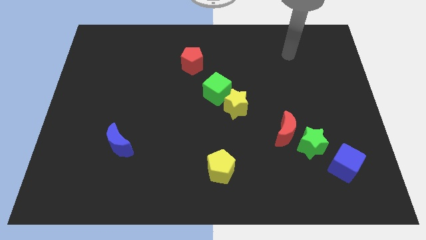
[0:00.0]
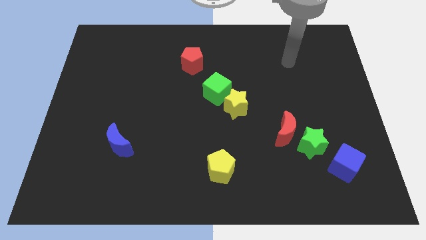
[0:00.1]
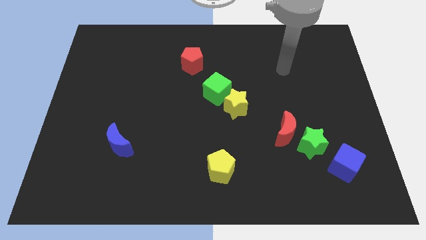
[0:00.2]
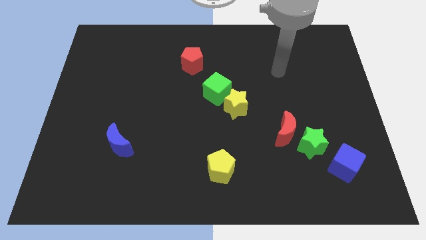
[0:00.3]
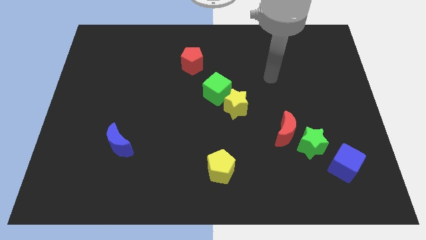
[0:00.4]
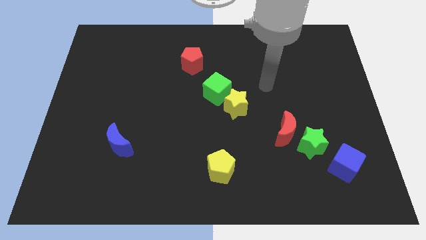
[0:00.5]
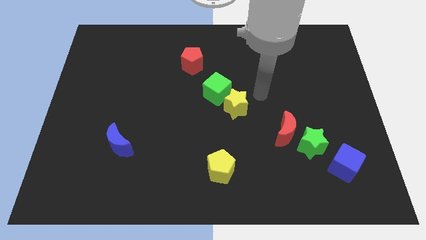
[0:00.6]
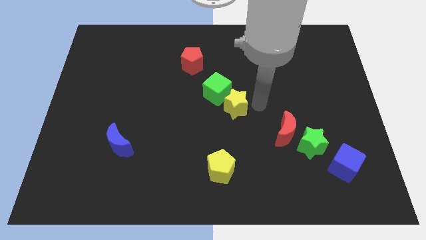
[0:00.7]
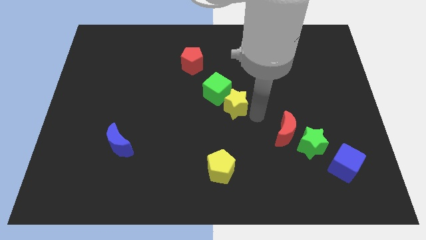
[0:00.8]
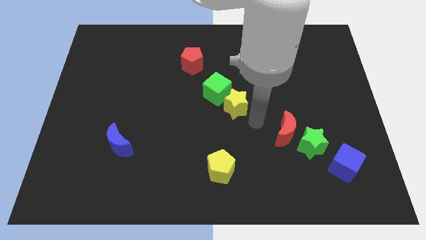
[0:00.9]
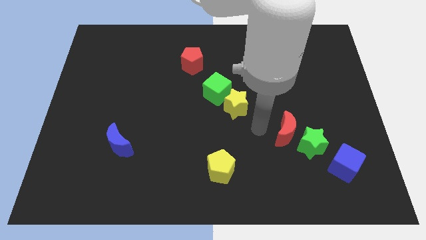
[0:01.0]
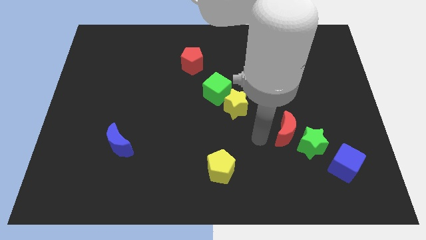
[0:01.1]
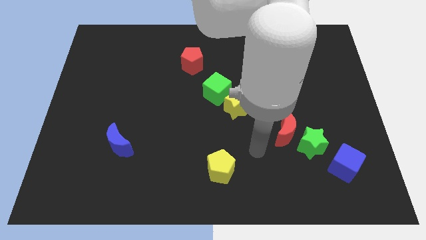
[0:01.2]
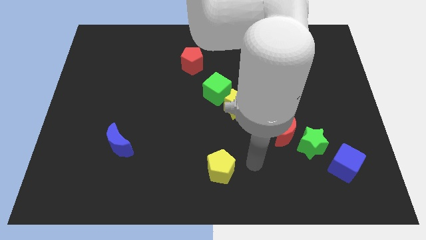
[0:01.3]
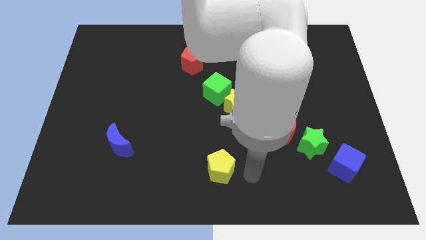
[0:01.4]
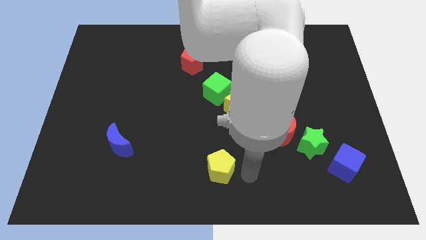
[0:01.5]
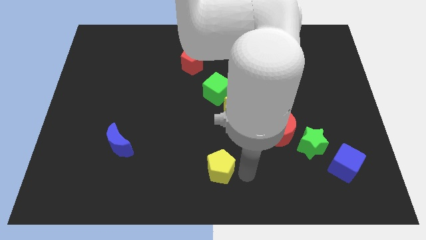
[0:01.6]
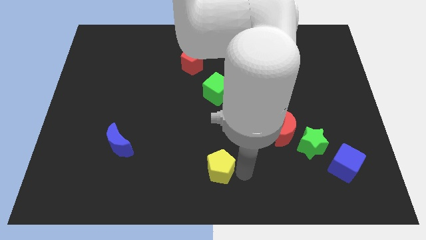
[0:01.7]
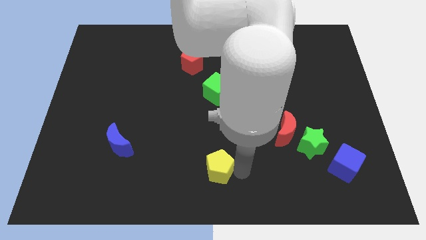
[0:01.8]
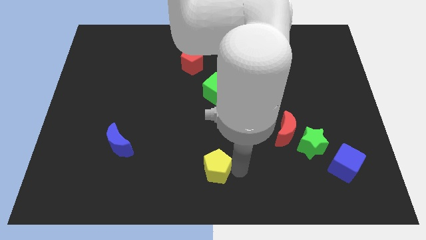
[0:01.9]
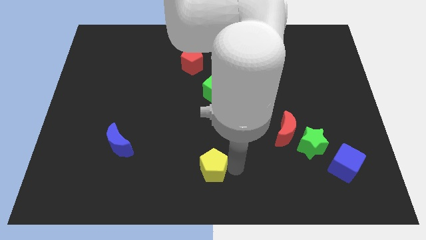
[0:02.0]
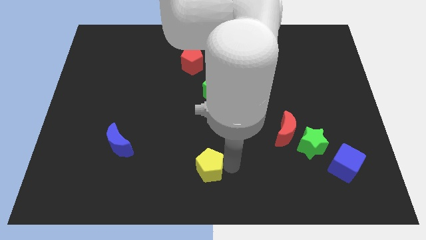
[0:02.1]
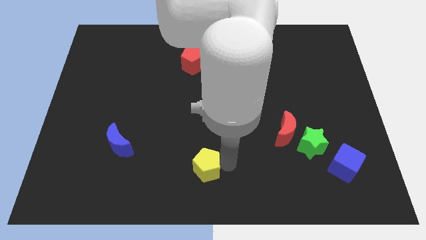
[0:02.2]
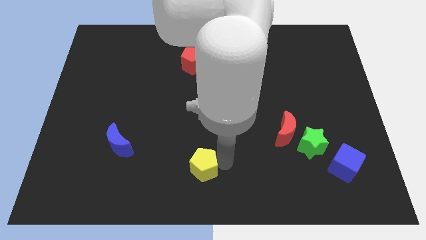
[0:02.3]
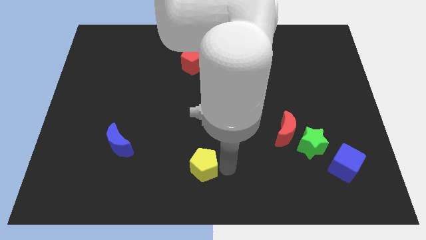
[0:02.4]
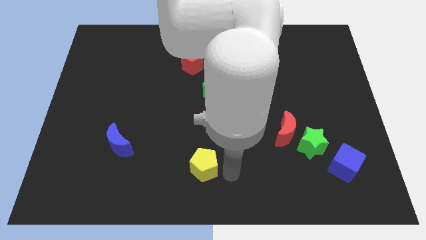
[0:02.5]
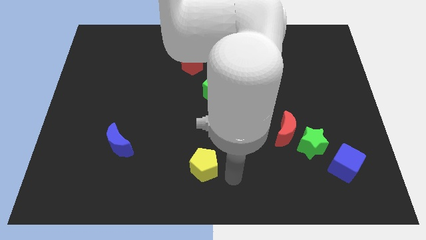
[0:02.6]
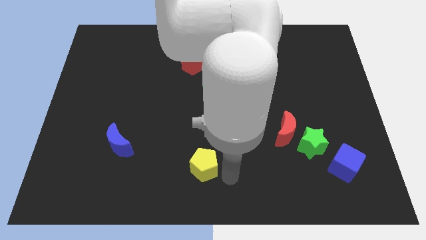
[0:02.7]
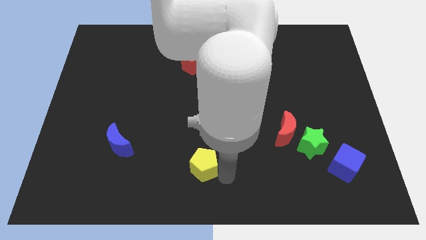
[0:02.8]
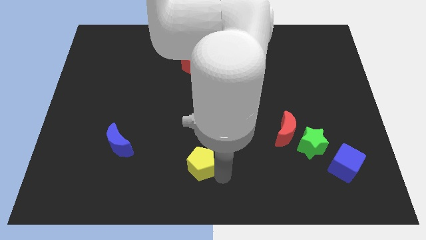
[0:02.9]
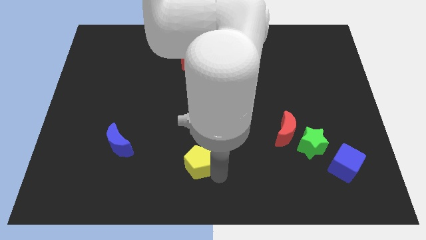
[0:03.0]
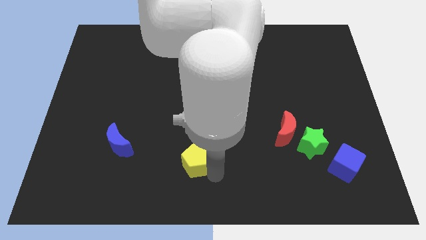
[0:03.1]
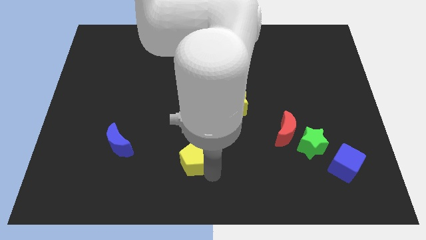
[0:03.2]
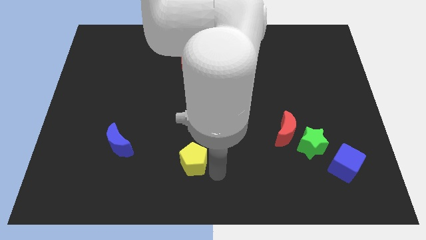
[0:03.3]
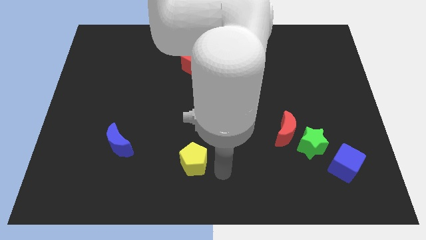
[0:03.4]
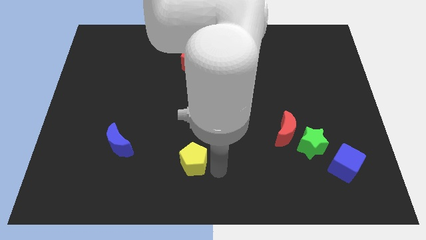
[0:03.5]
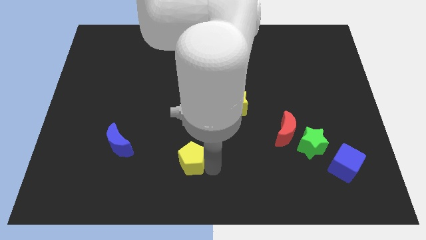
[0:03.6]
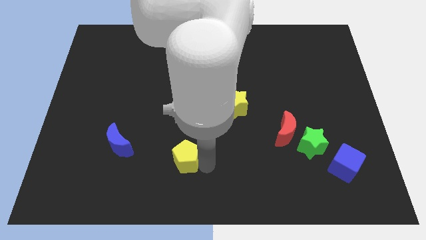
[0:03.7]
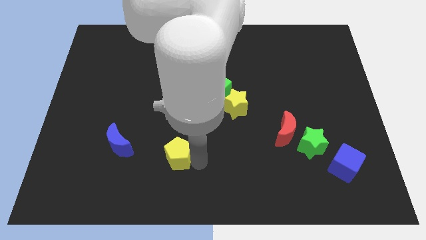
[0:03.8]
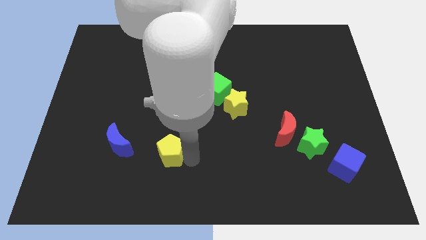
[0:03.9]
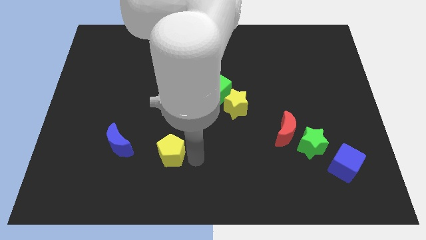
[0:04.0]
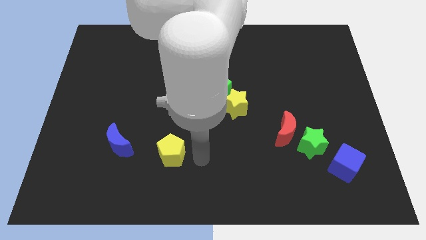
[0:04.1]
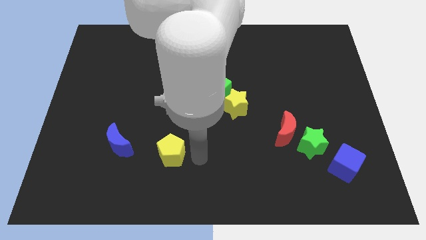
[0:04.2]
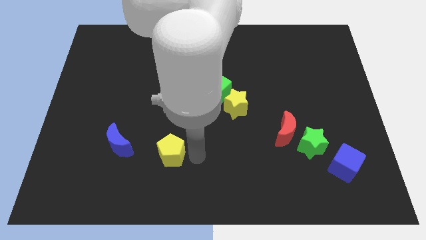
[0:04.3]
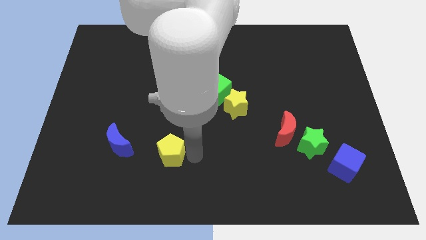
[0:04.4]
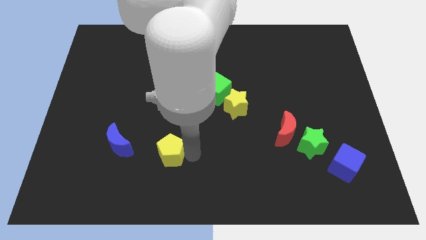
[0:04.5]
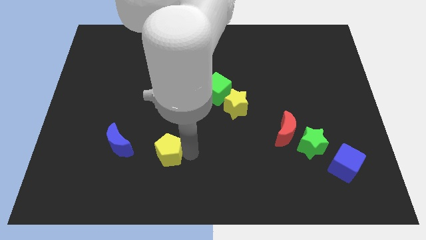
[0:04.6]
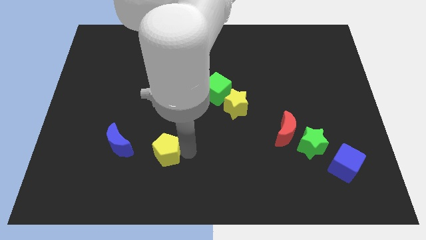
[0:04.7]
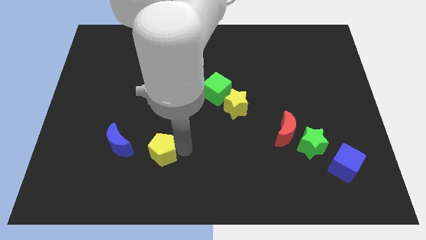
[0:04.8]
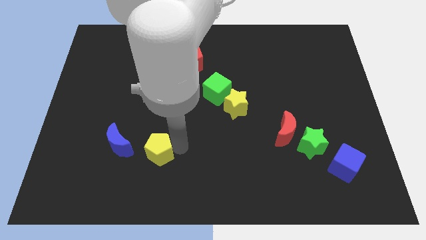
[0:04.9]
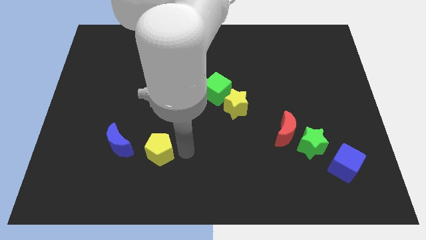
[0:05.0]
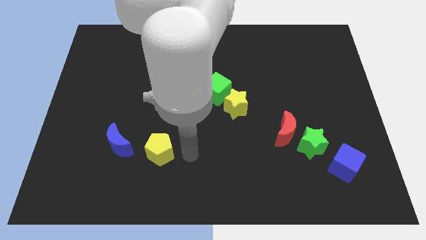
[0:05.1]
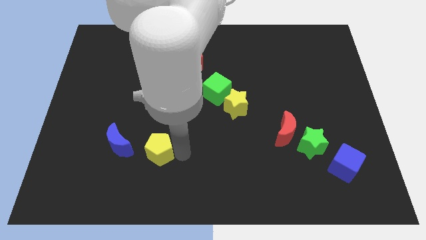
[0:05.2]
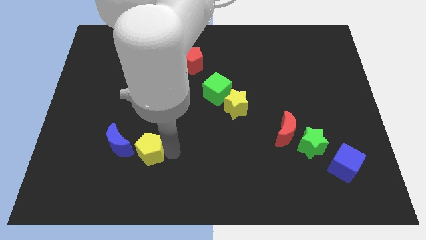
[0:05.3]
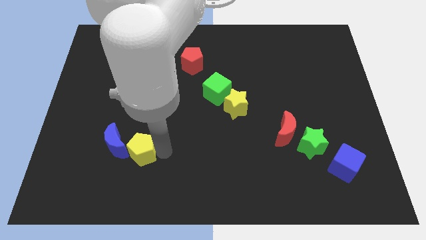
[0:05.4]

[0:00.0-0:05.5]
put the yellow pentagon to the blue moon

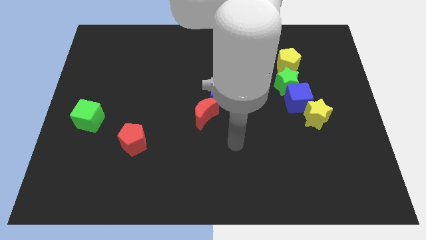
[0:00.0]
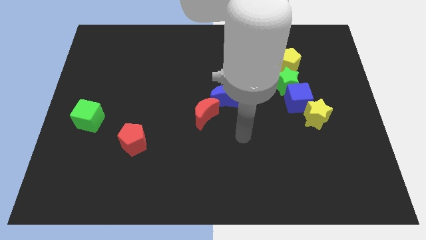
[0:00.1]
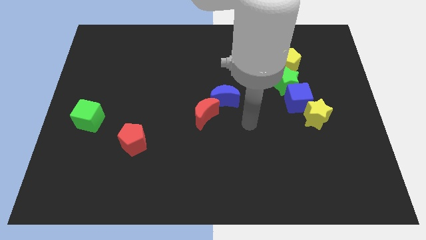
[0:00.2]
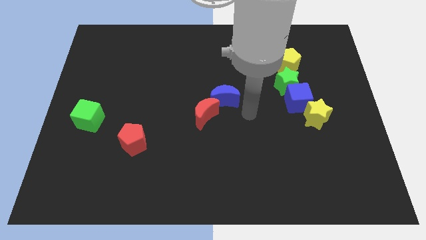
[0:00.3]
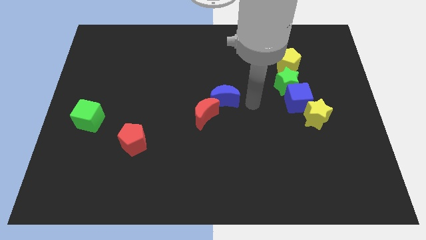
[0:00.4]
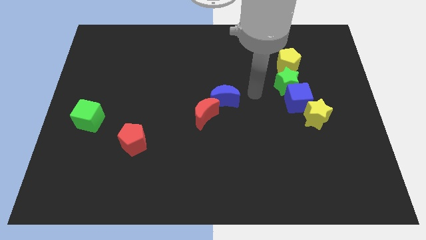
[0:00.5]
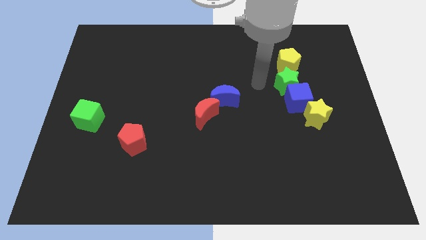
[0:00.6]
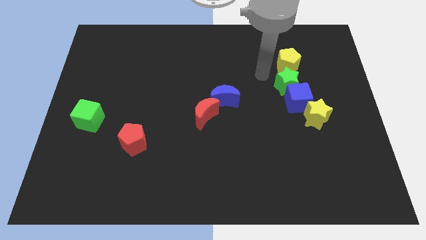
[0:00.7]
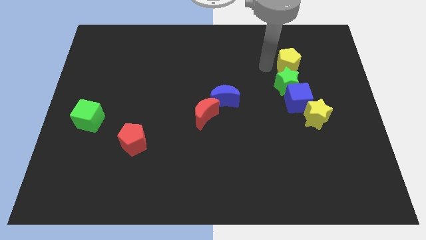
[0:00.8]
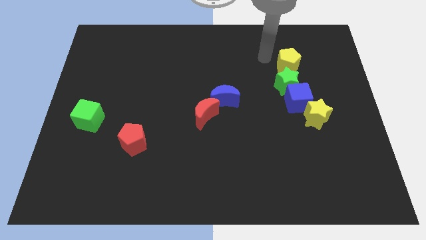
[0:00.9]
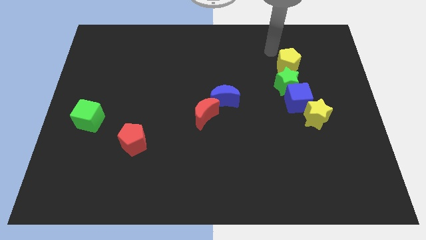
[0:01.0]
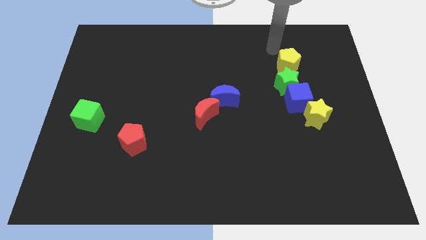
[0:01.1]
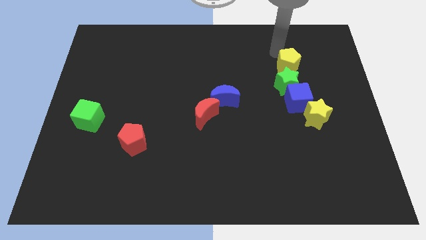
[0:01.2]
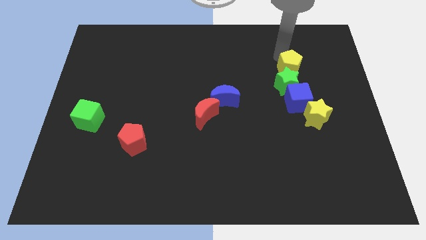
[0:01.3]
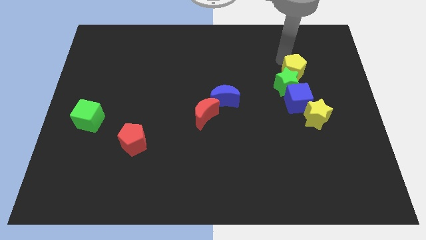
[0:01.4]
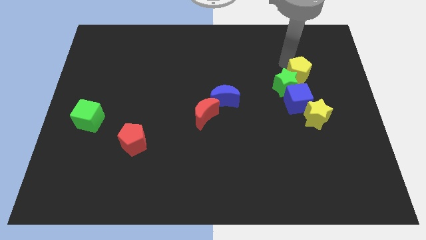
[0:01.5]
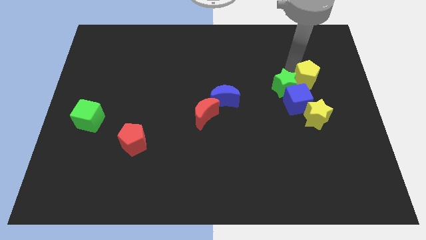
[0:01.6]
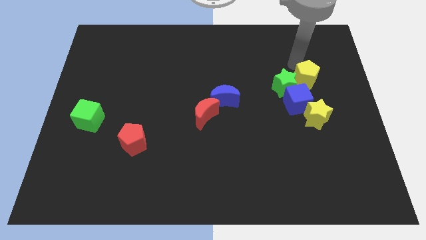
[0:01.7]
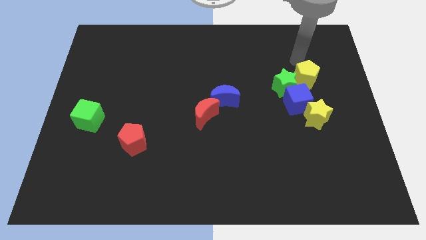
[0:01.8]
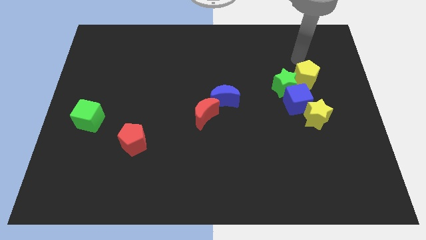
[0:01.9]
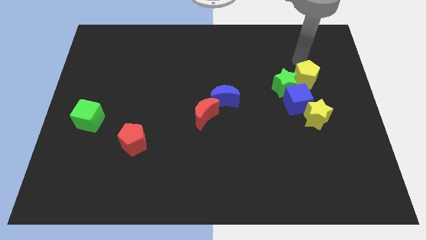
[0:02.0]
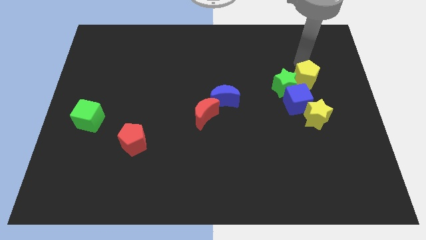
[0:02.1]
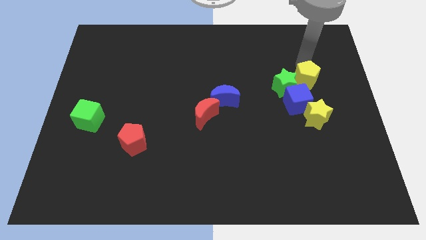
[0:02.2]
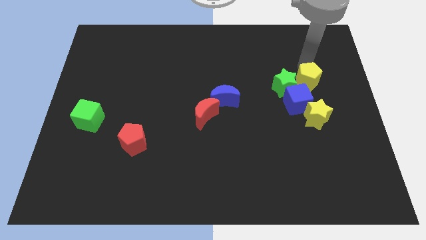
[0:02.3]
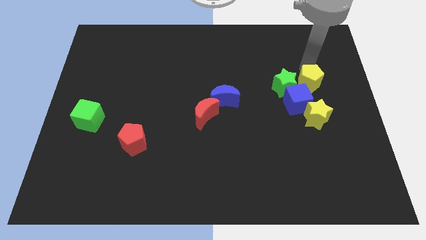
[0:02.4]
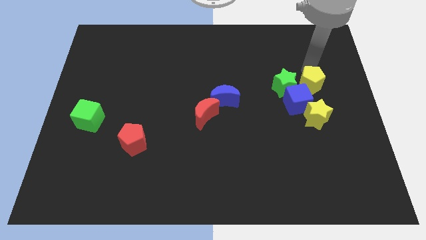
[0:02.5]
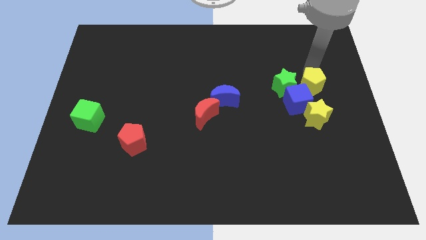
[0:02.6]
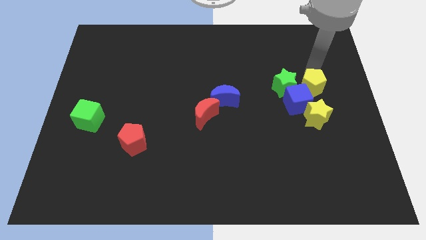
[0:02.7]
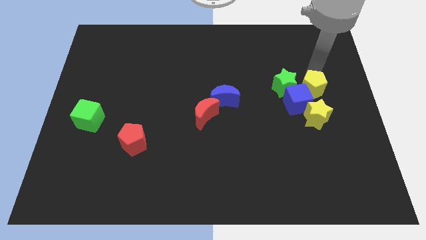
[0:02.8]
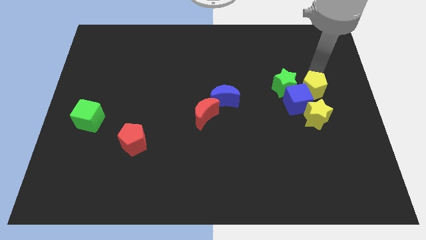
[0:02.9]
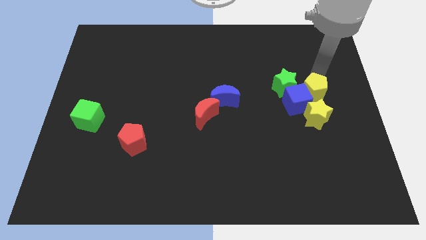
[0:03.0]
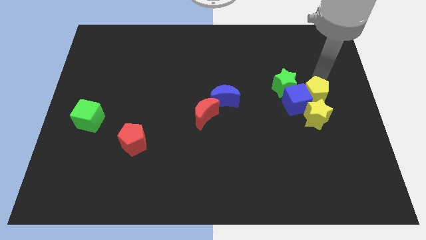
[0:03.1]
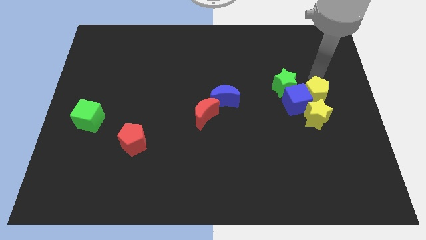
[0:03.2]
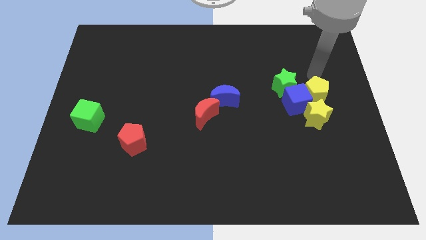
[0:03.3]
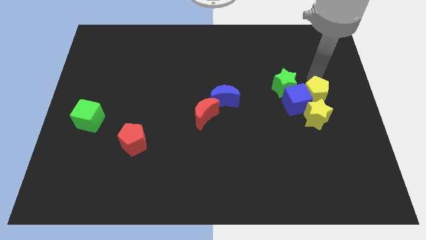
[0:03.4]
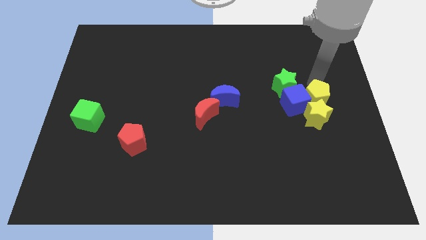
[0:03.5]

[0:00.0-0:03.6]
slide the yellow pentagon towards the yellow star
